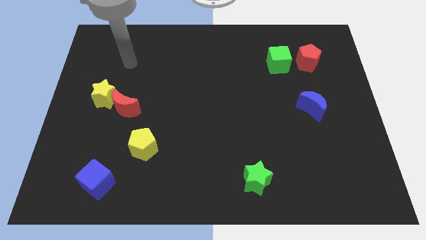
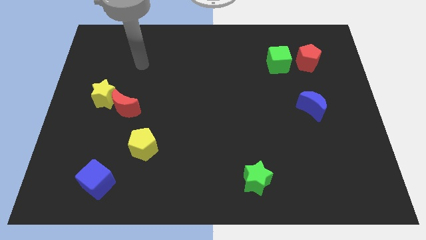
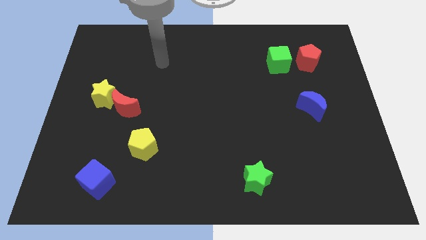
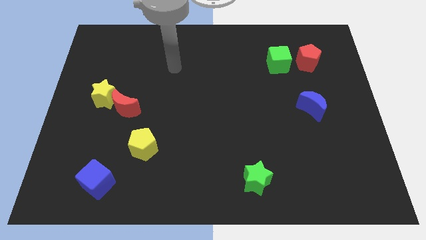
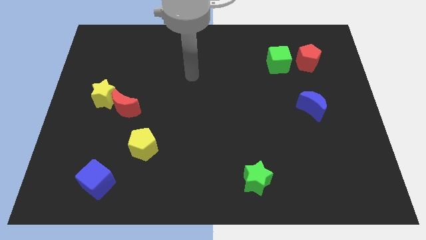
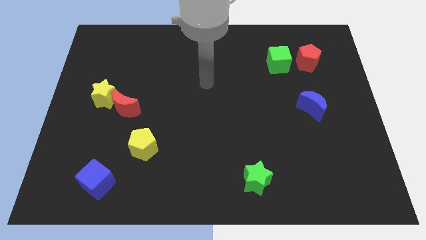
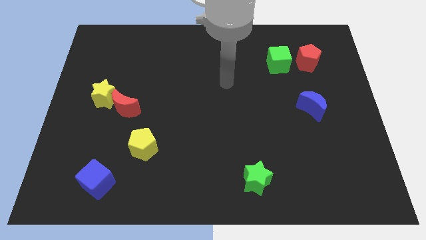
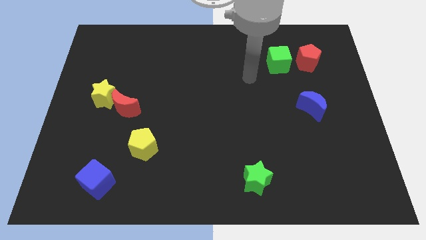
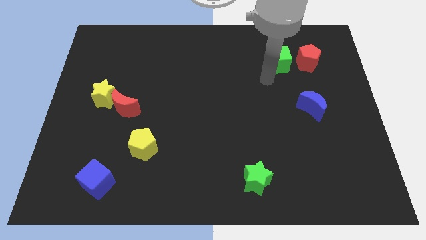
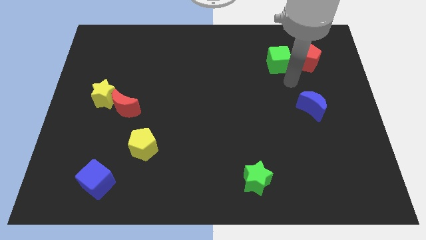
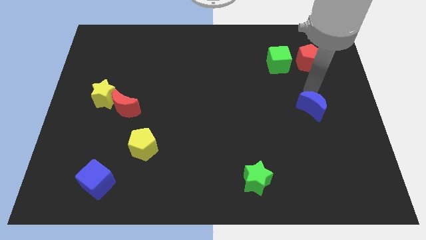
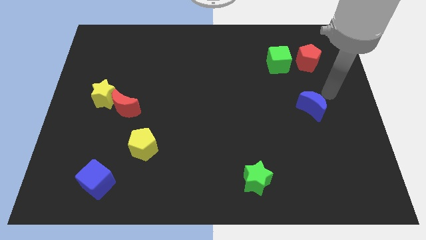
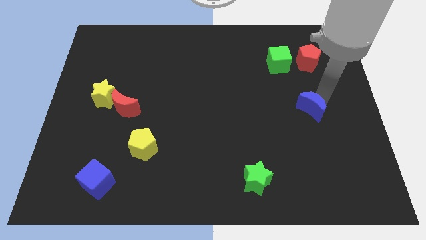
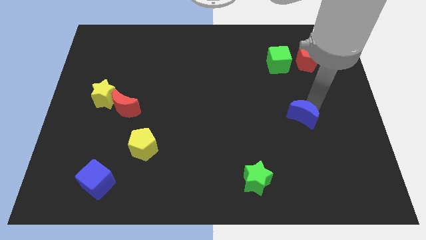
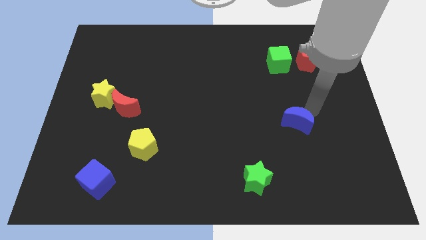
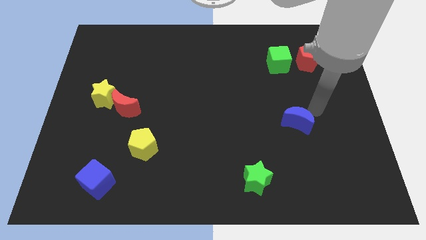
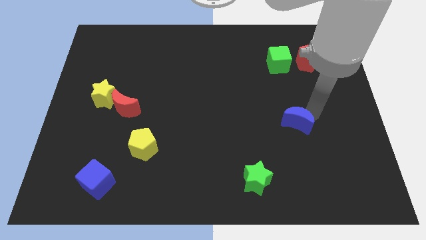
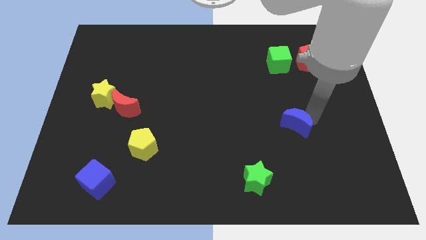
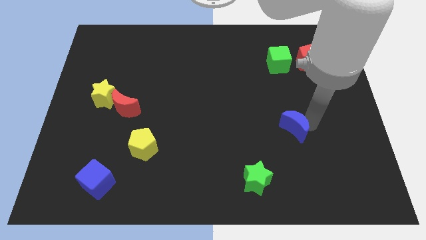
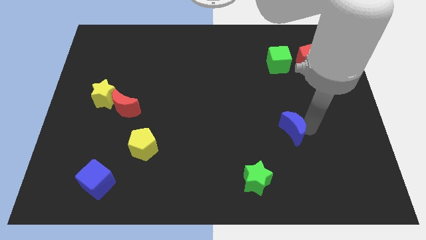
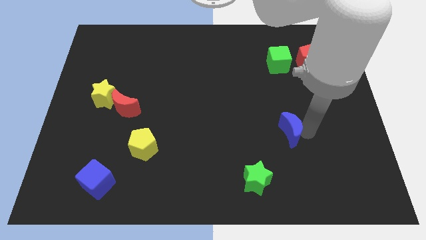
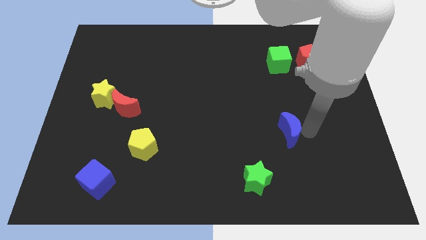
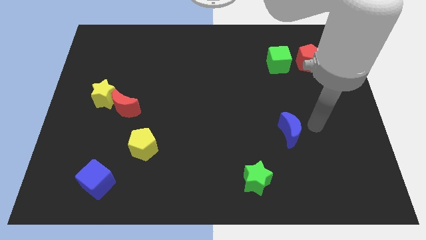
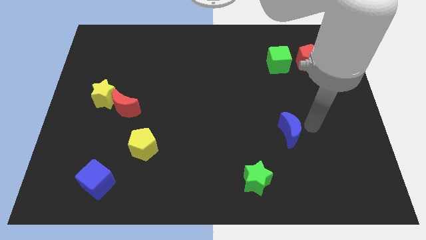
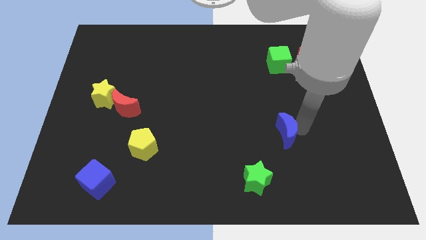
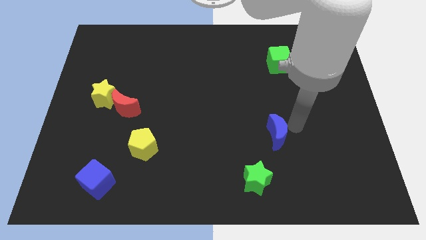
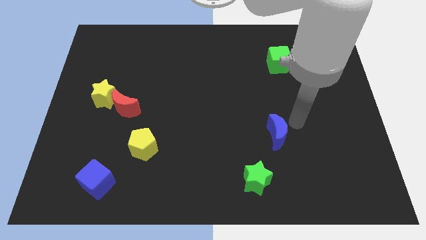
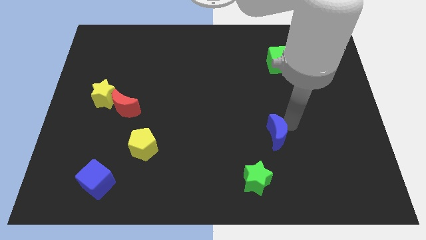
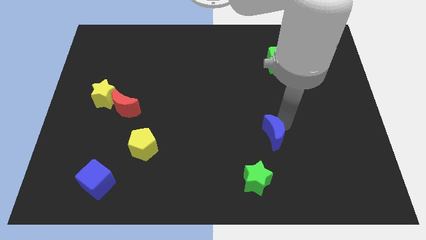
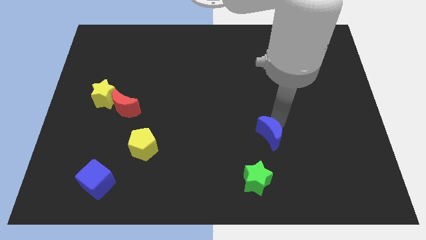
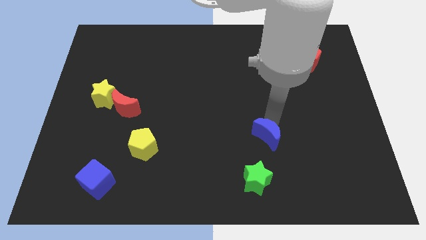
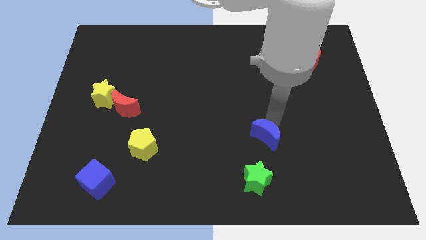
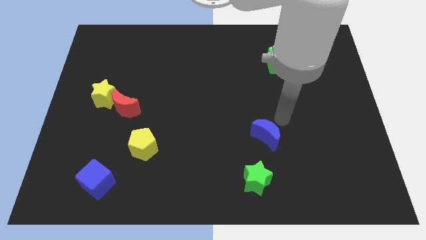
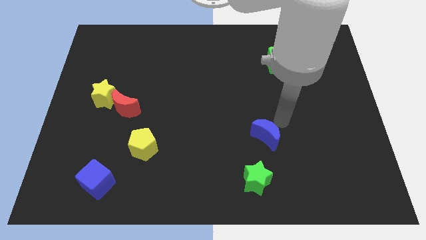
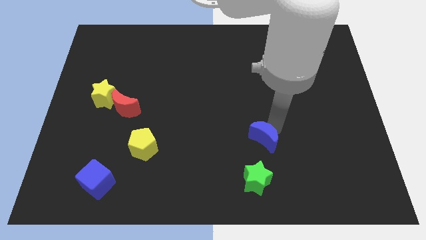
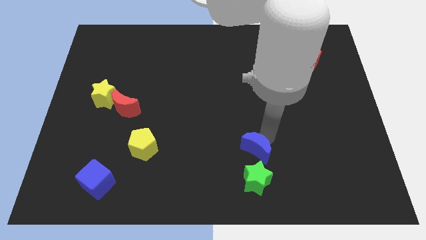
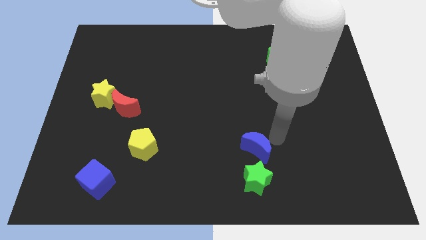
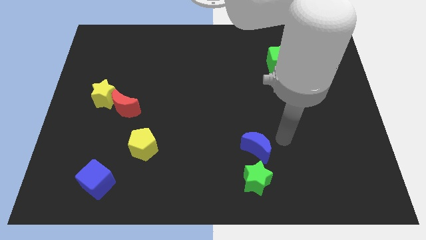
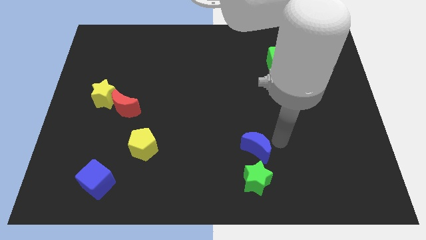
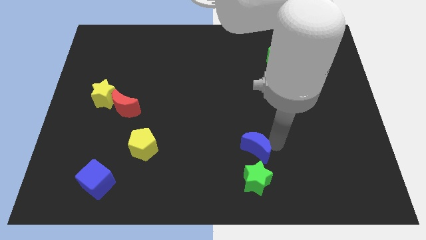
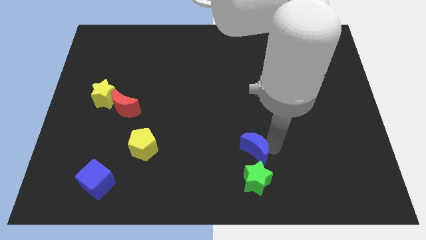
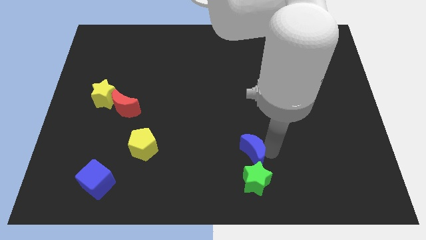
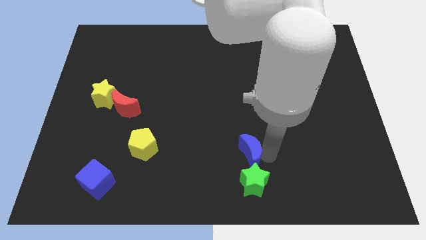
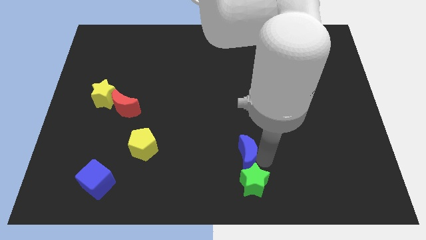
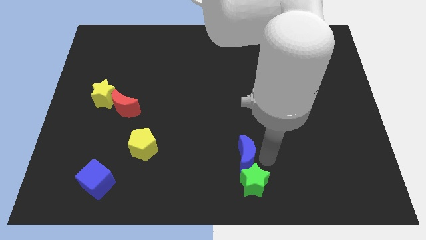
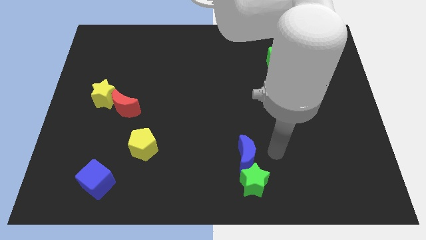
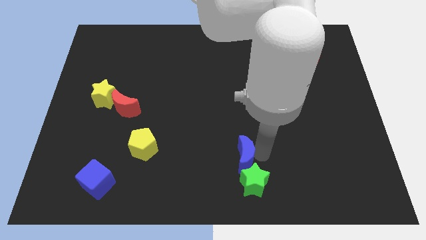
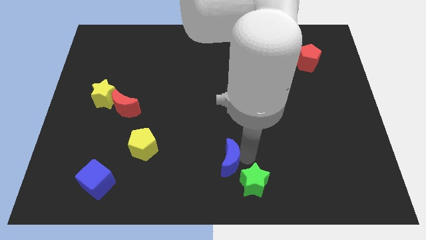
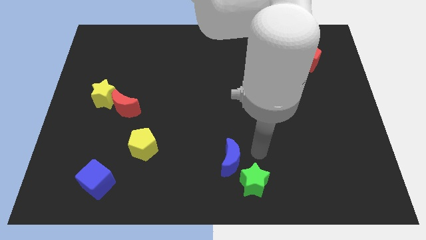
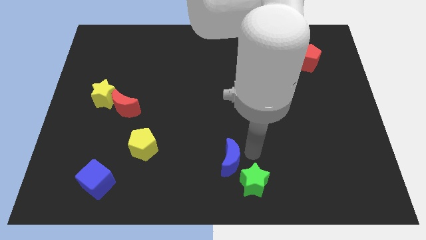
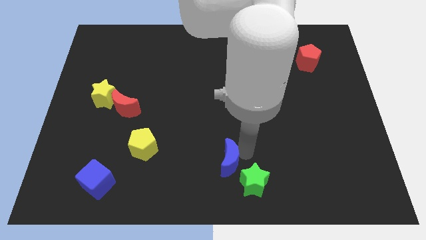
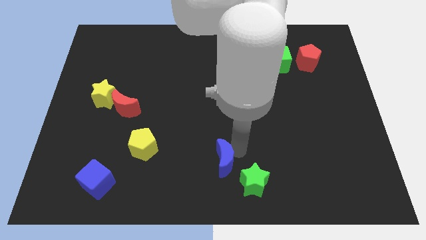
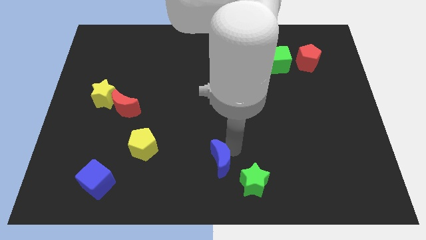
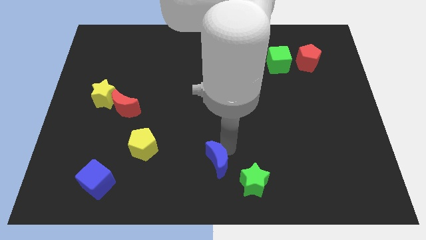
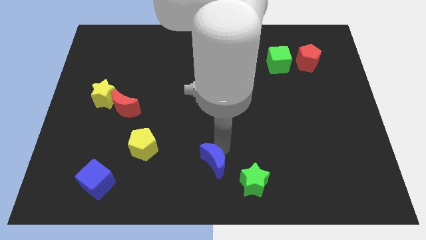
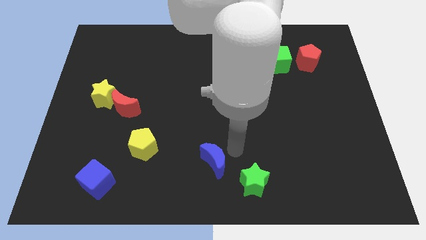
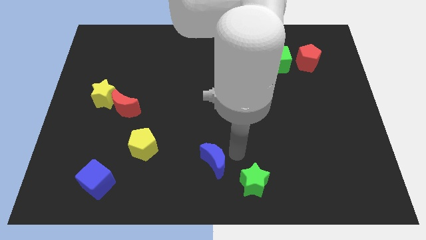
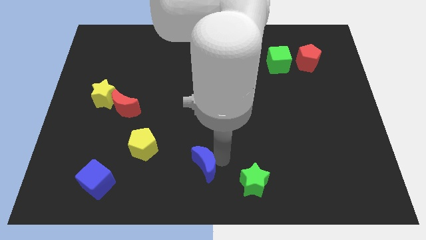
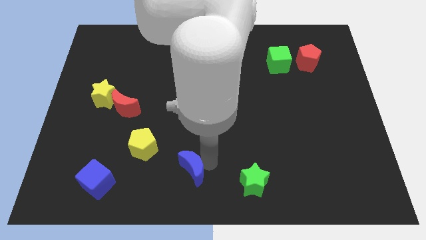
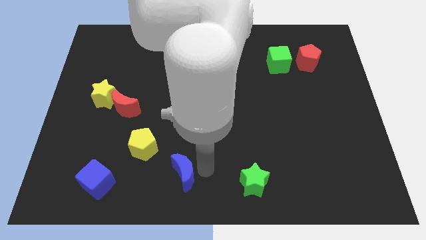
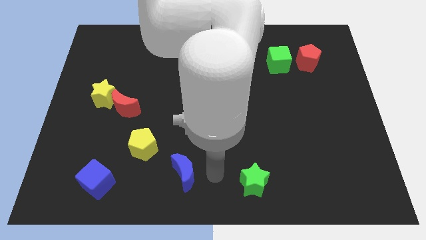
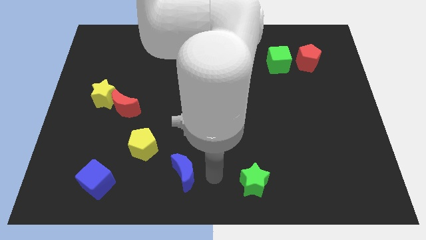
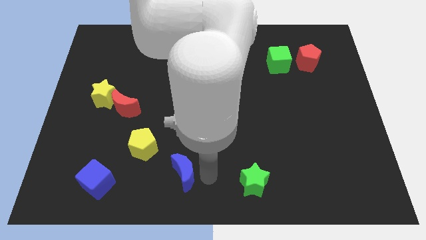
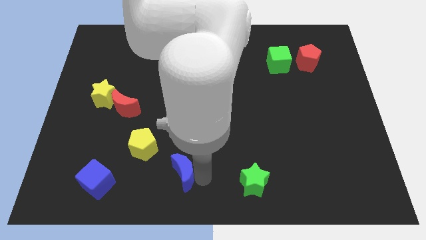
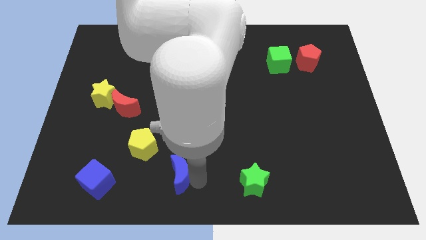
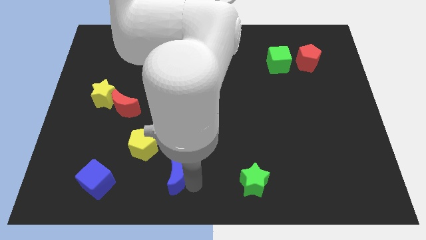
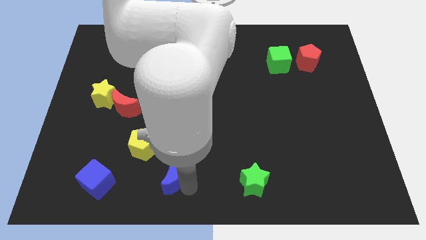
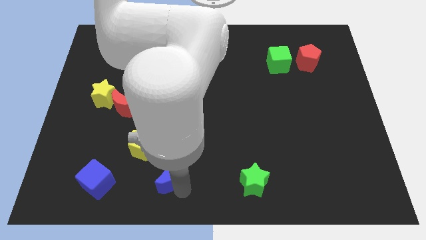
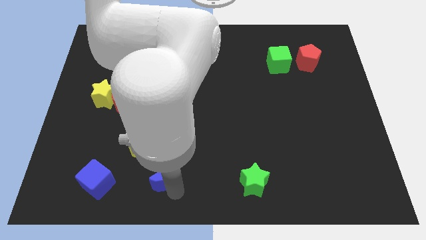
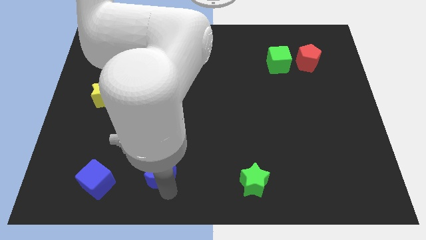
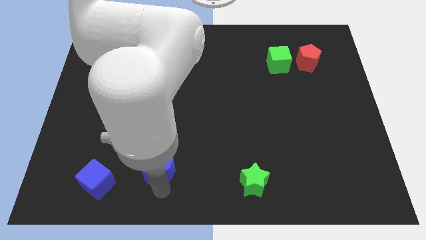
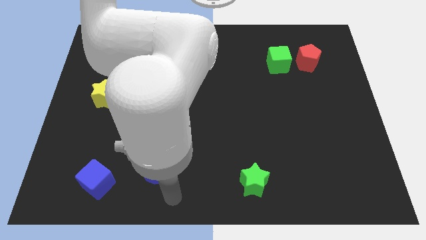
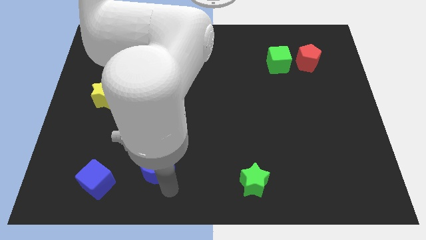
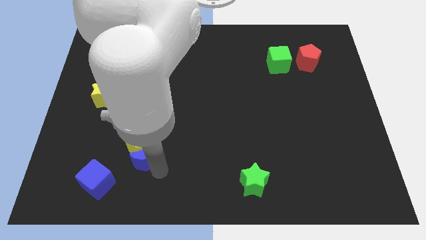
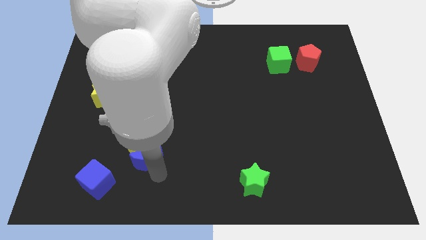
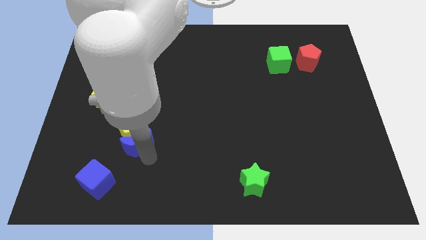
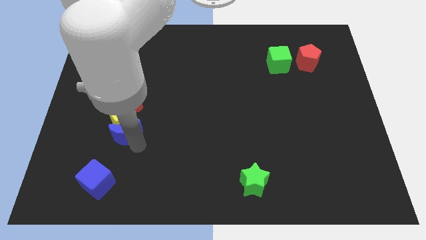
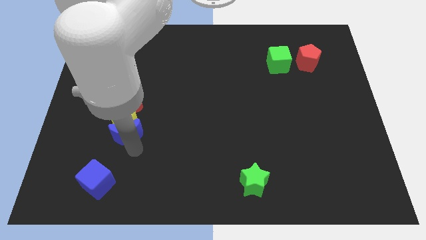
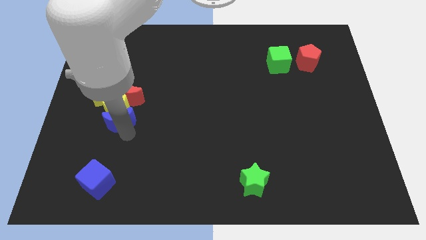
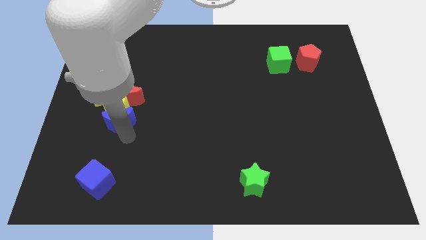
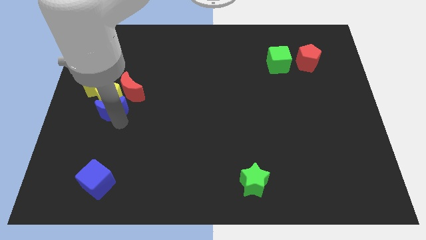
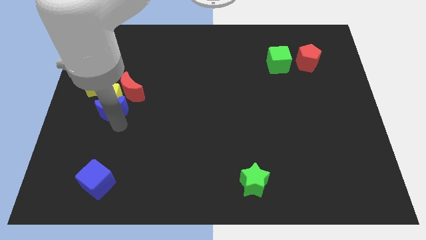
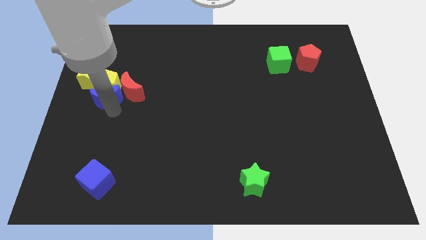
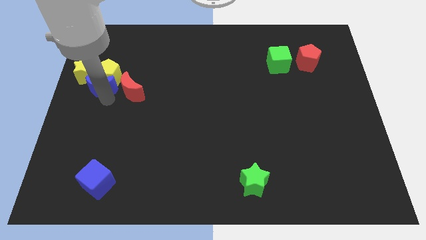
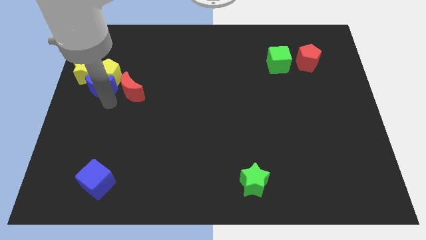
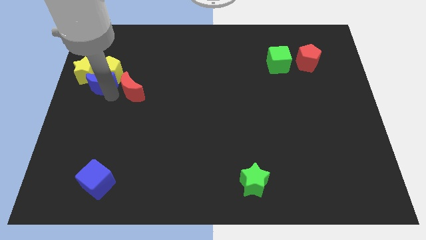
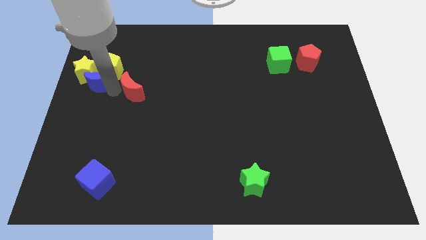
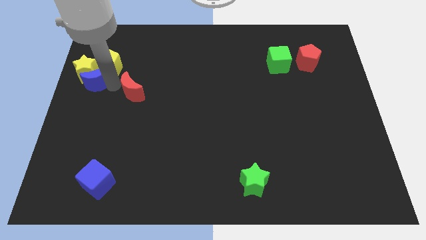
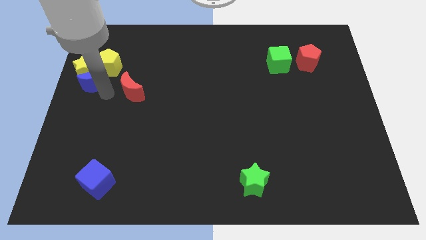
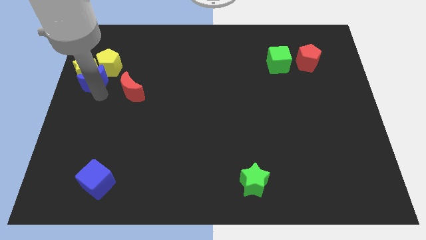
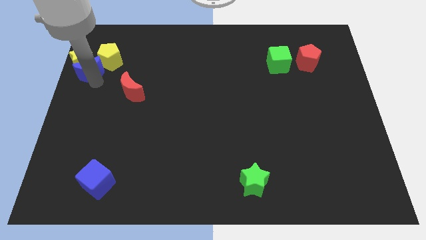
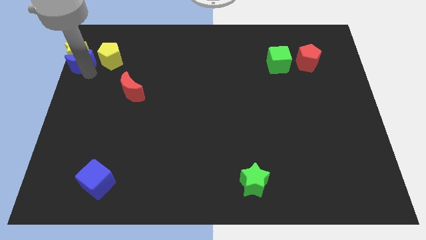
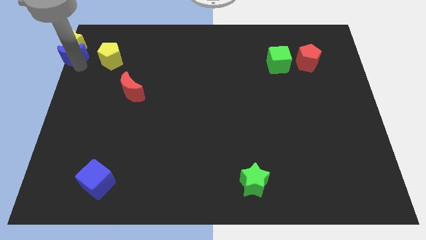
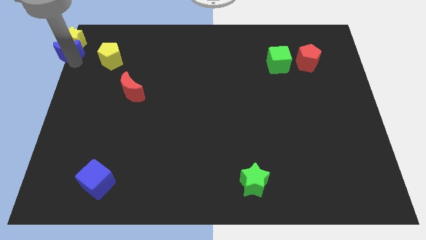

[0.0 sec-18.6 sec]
slide the blue moon to the top left
